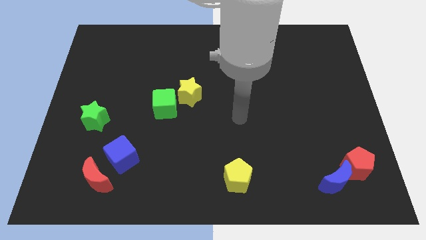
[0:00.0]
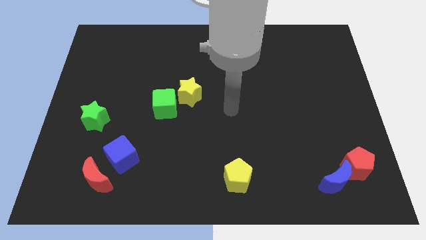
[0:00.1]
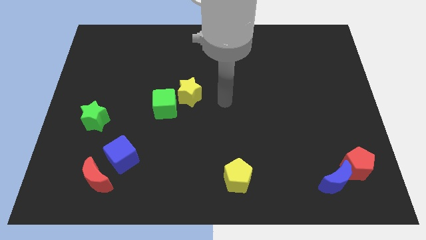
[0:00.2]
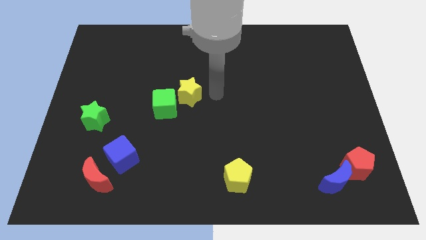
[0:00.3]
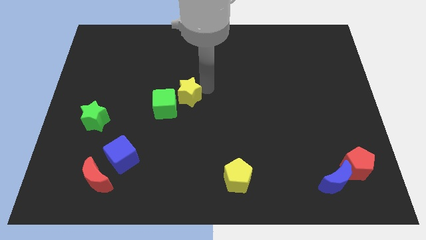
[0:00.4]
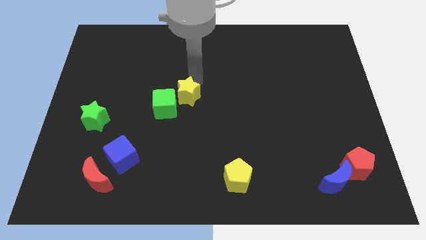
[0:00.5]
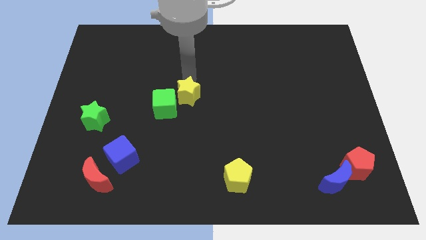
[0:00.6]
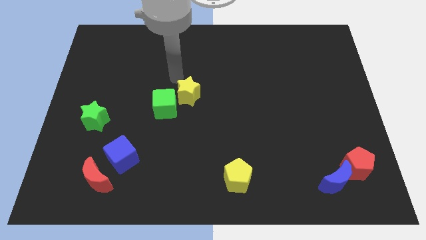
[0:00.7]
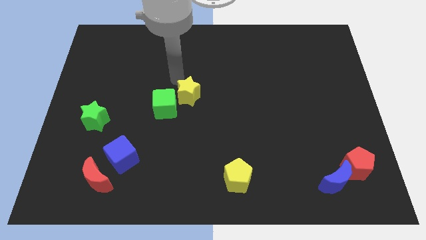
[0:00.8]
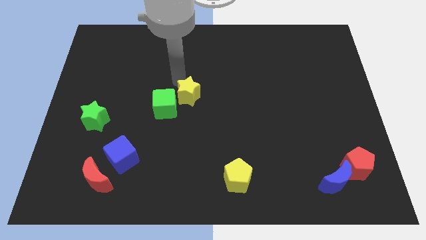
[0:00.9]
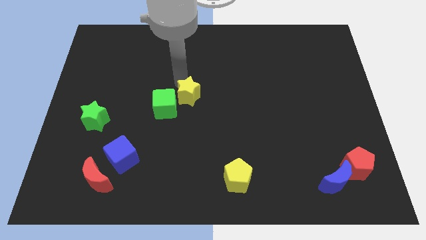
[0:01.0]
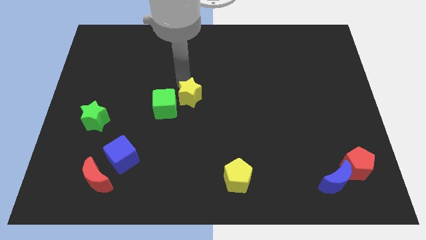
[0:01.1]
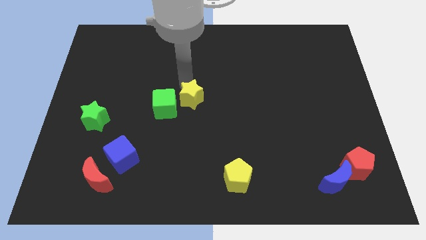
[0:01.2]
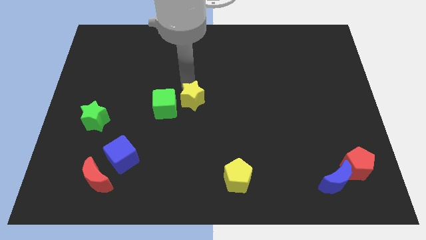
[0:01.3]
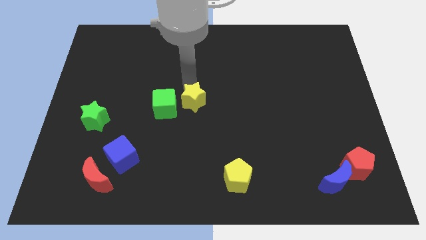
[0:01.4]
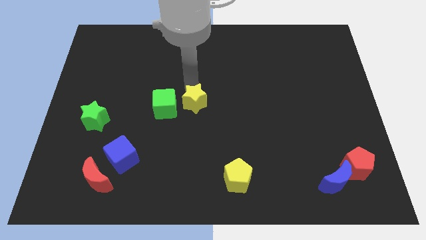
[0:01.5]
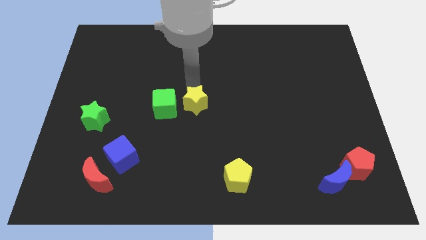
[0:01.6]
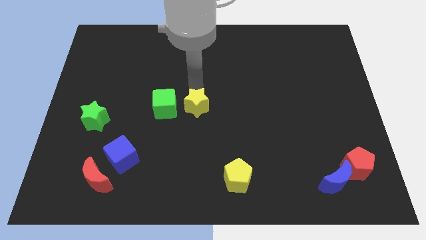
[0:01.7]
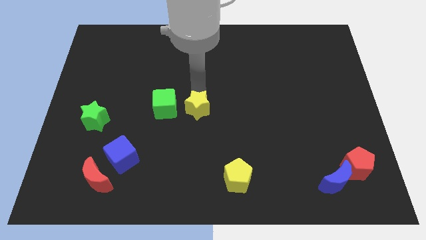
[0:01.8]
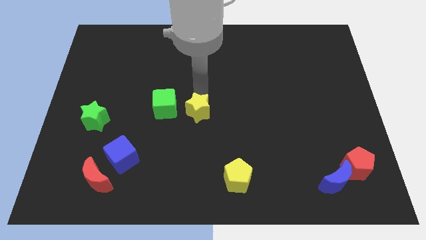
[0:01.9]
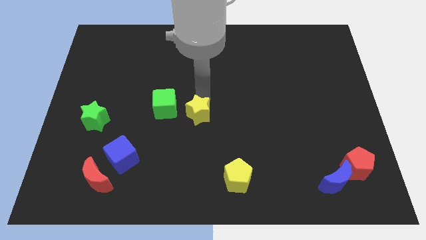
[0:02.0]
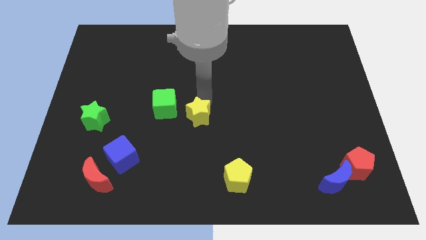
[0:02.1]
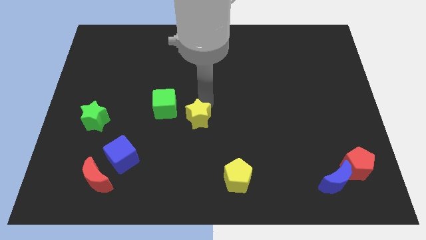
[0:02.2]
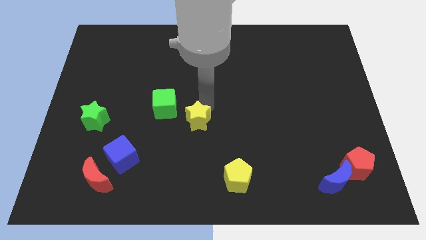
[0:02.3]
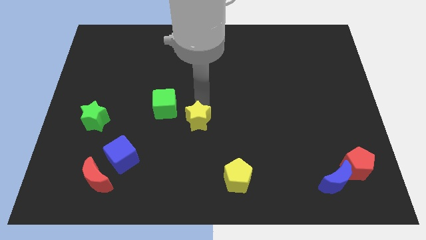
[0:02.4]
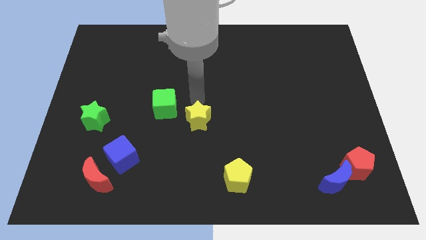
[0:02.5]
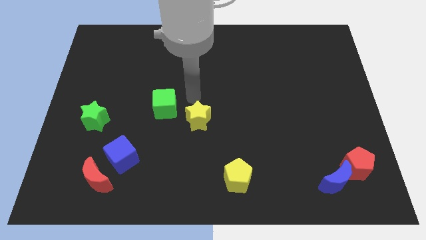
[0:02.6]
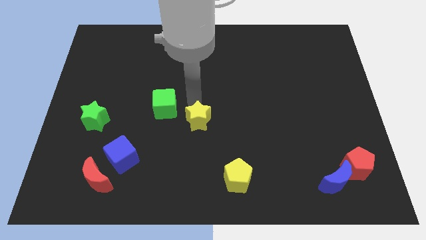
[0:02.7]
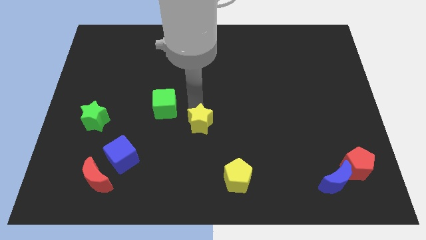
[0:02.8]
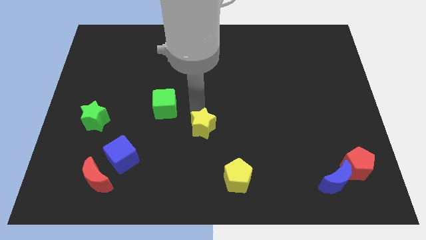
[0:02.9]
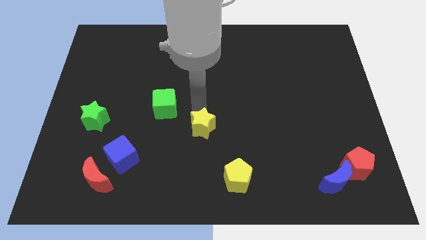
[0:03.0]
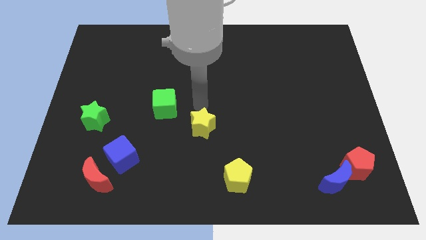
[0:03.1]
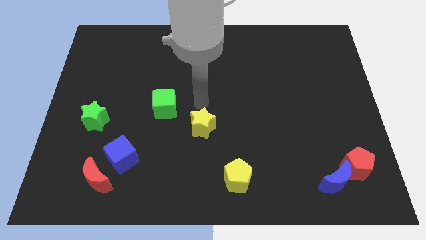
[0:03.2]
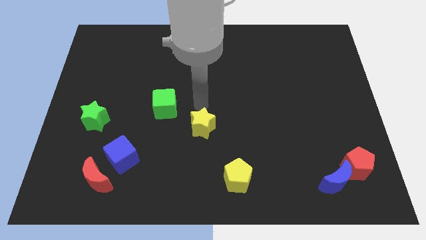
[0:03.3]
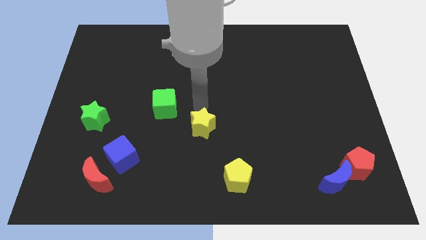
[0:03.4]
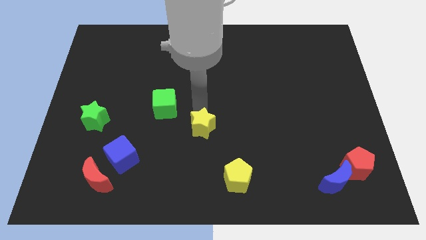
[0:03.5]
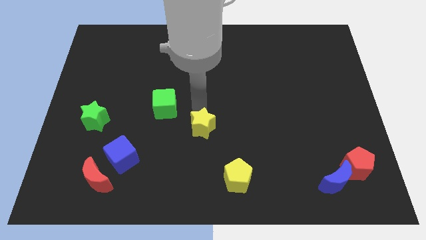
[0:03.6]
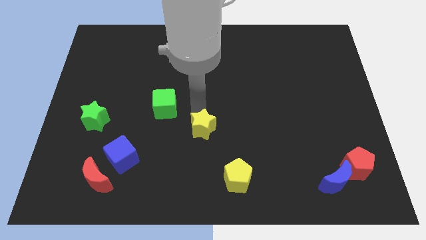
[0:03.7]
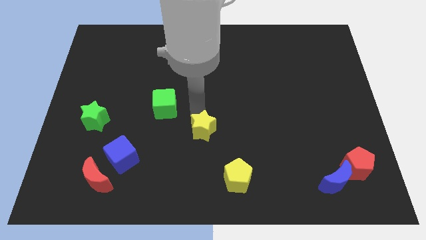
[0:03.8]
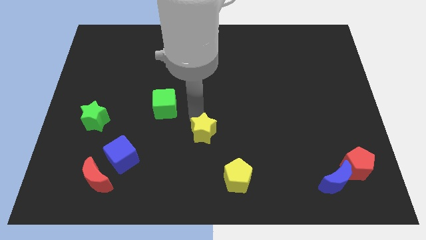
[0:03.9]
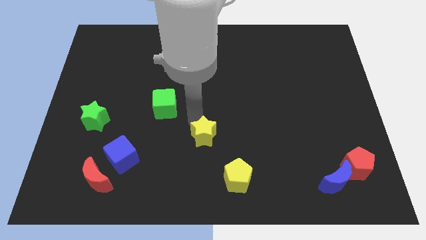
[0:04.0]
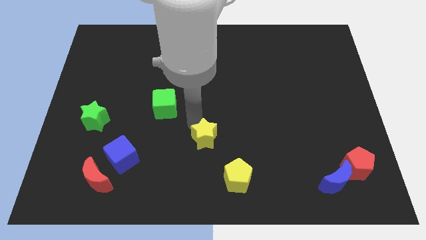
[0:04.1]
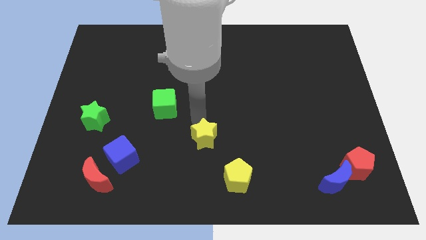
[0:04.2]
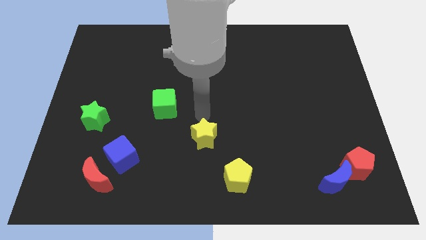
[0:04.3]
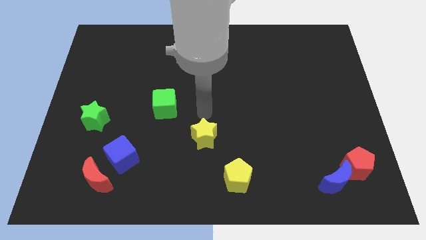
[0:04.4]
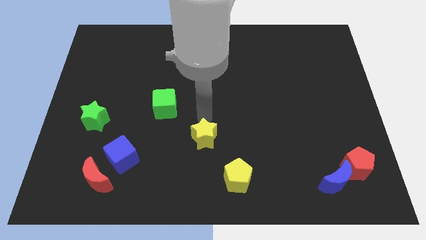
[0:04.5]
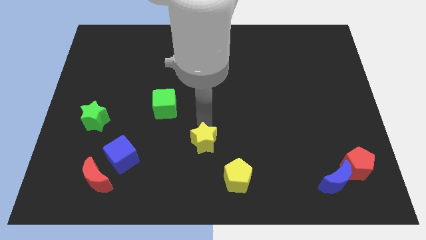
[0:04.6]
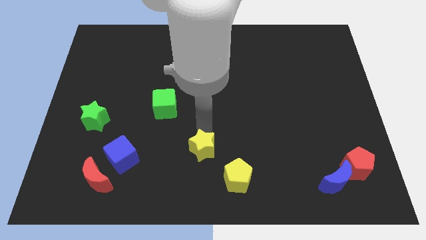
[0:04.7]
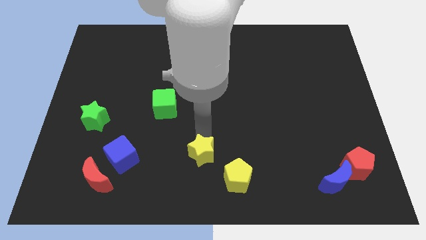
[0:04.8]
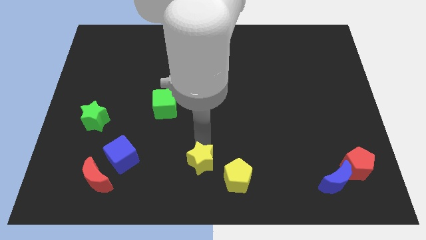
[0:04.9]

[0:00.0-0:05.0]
move the yellow star to the bottom side

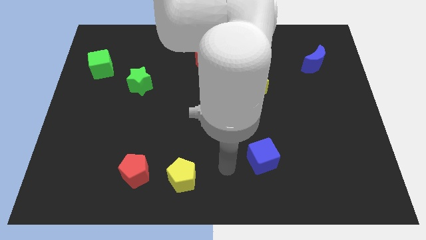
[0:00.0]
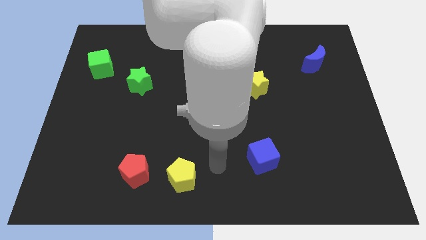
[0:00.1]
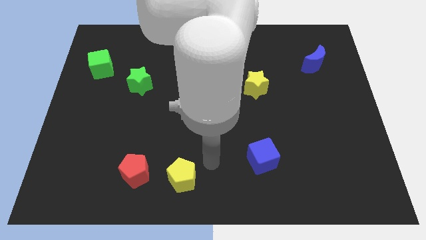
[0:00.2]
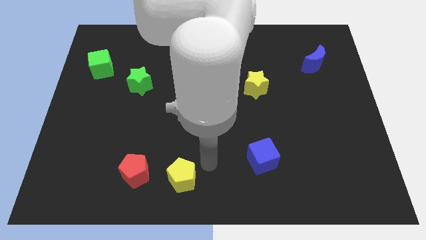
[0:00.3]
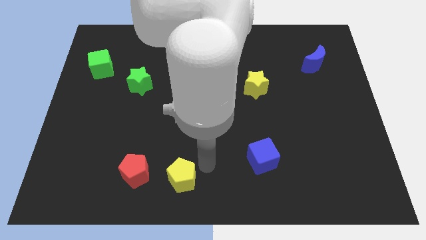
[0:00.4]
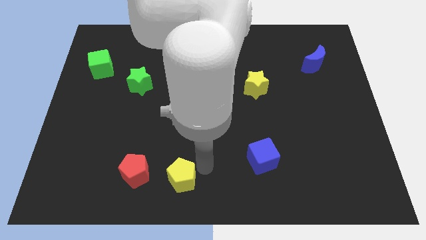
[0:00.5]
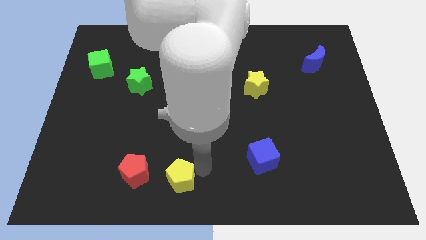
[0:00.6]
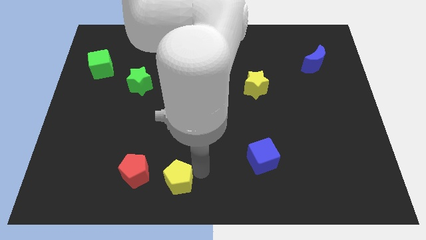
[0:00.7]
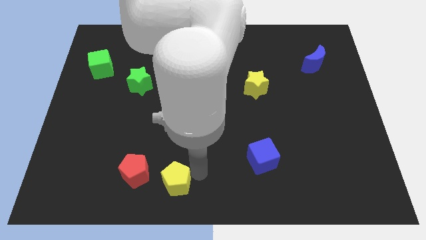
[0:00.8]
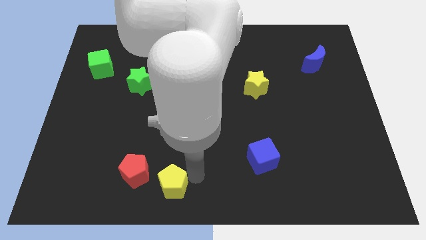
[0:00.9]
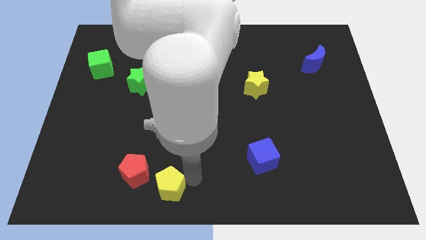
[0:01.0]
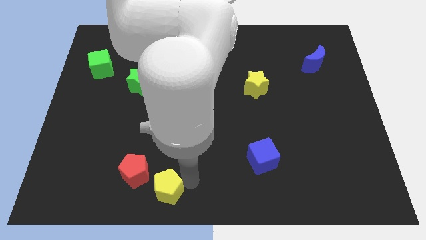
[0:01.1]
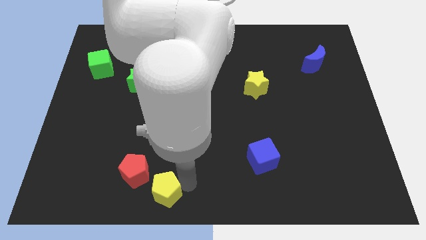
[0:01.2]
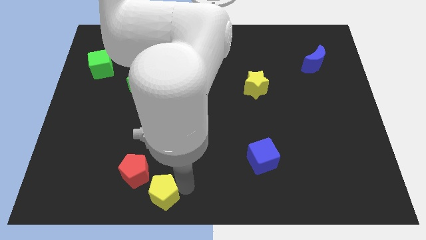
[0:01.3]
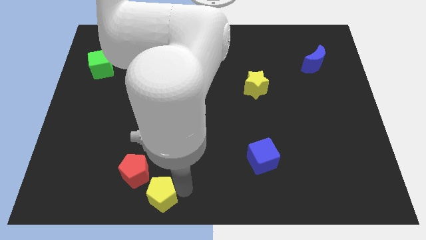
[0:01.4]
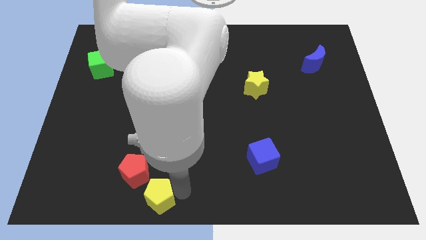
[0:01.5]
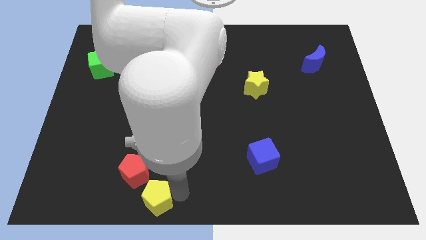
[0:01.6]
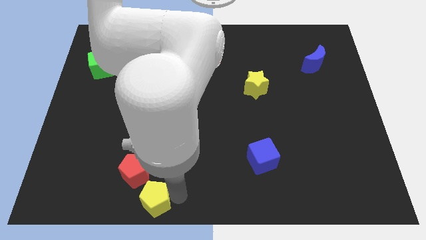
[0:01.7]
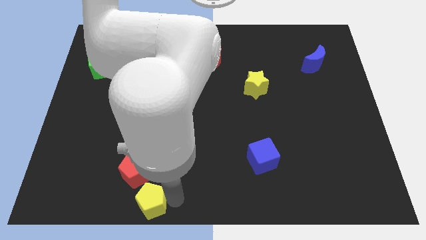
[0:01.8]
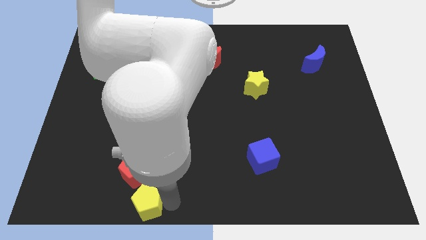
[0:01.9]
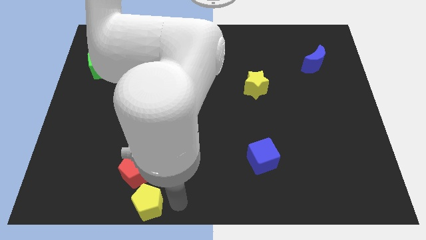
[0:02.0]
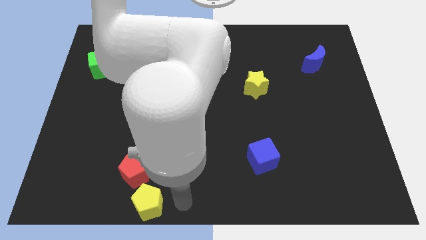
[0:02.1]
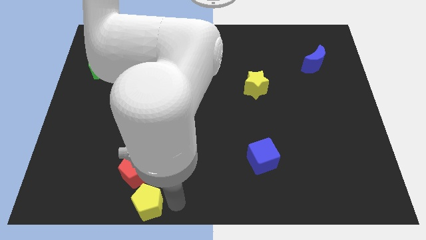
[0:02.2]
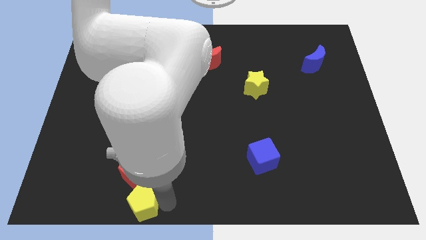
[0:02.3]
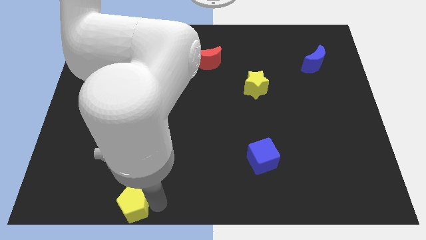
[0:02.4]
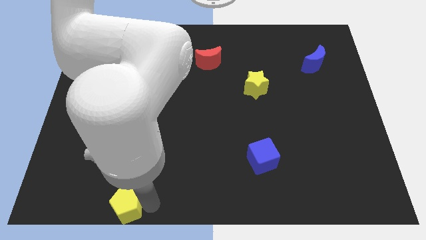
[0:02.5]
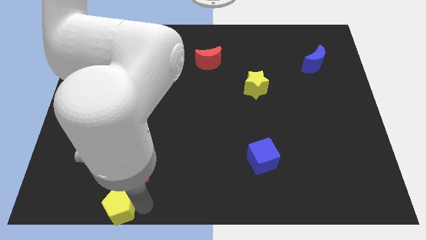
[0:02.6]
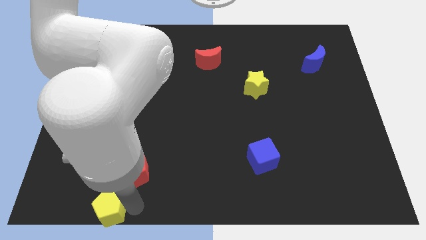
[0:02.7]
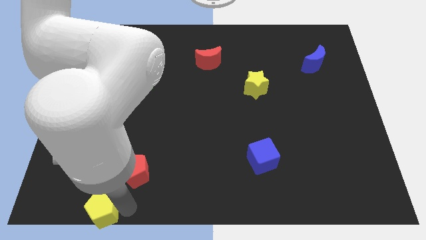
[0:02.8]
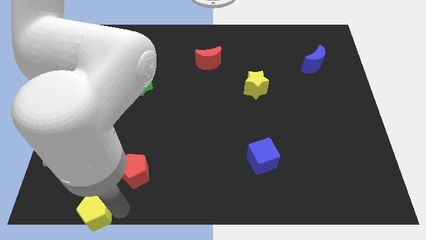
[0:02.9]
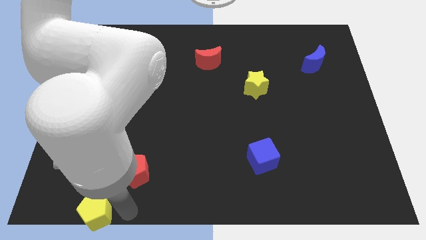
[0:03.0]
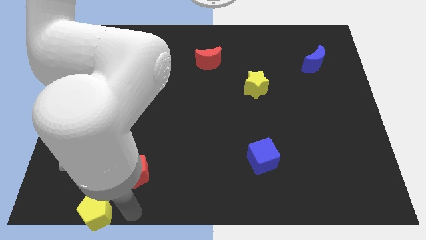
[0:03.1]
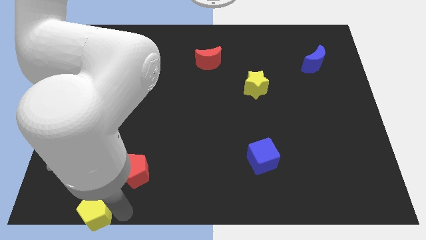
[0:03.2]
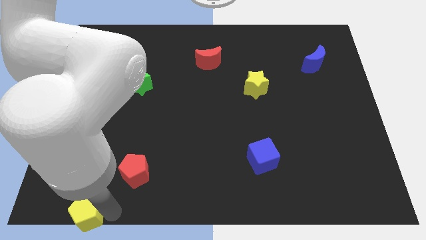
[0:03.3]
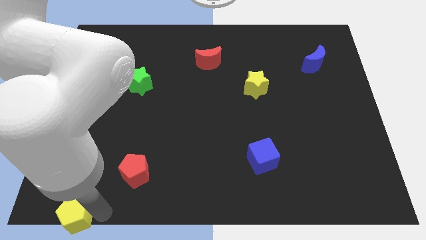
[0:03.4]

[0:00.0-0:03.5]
slide the yellow pentagon to the bottom left corner
